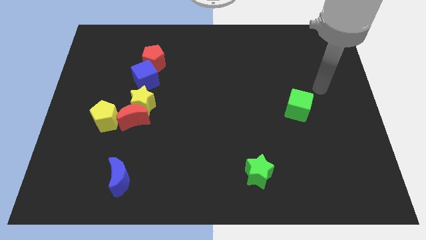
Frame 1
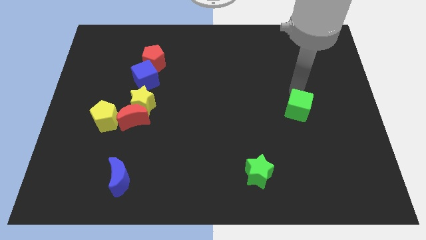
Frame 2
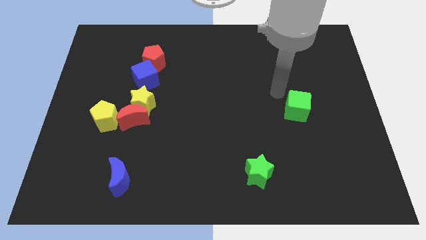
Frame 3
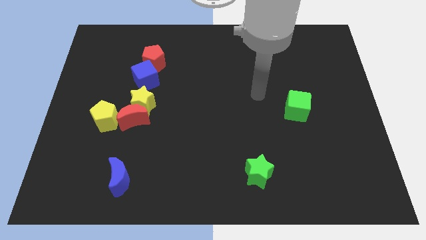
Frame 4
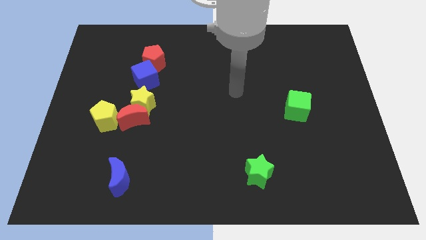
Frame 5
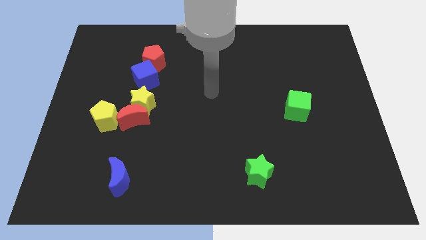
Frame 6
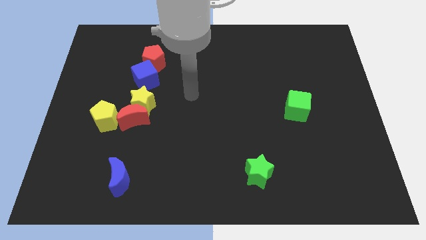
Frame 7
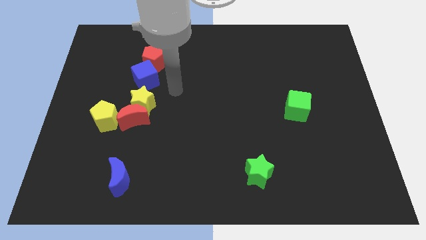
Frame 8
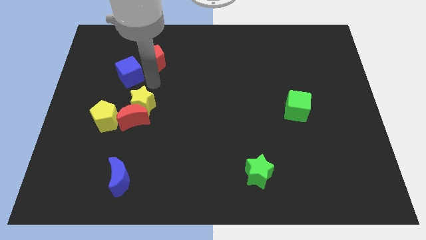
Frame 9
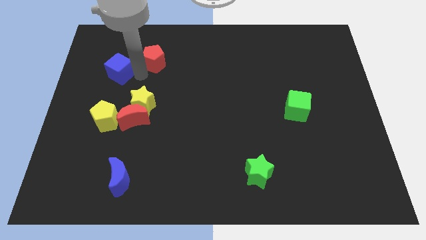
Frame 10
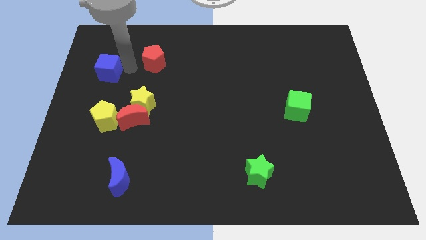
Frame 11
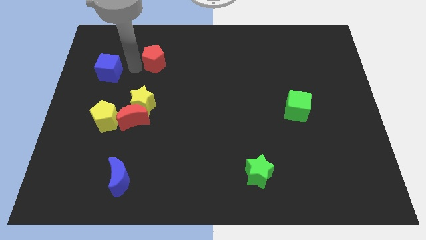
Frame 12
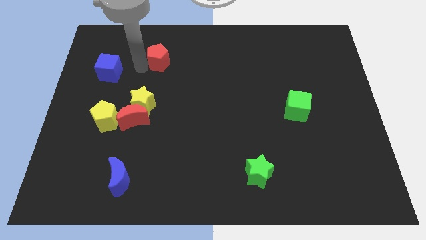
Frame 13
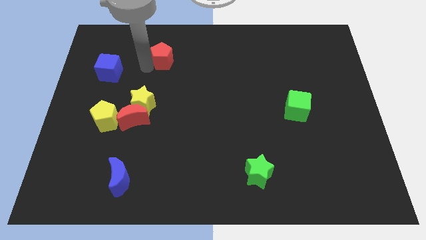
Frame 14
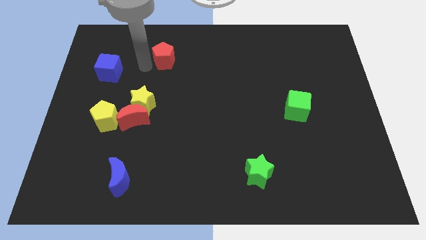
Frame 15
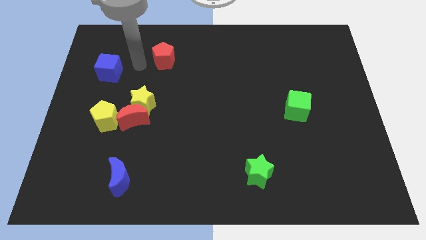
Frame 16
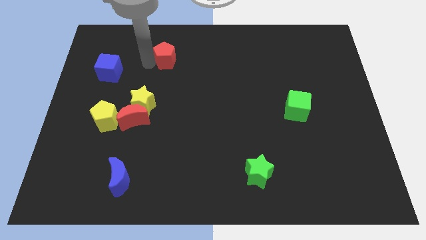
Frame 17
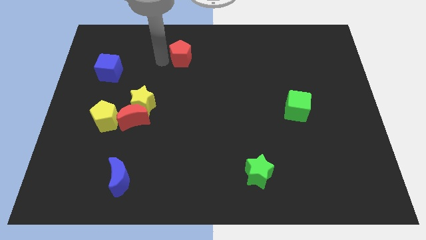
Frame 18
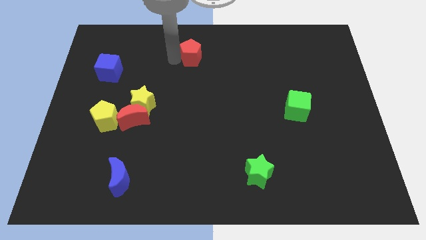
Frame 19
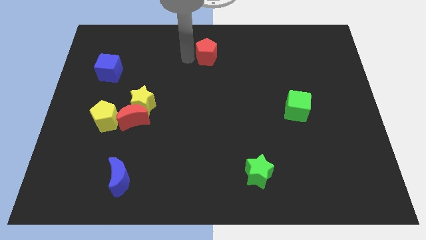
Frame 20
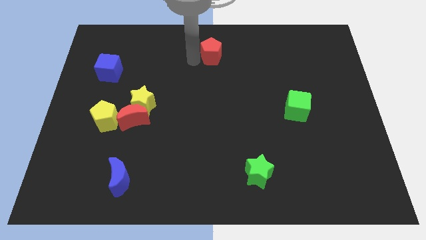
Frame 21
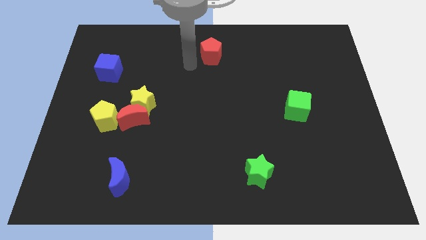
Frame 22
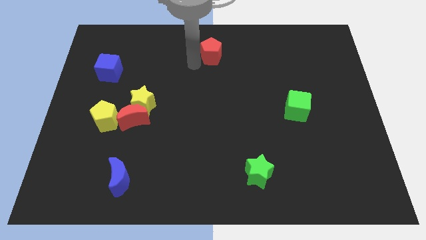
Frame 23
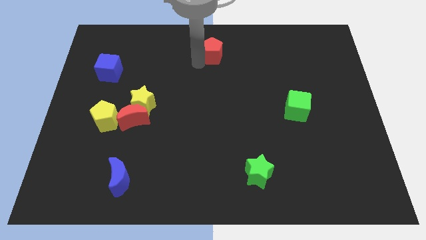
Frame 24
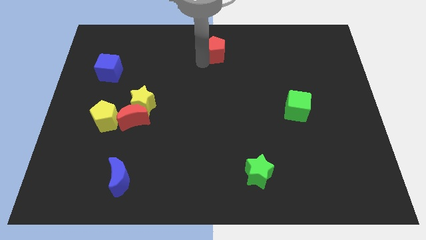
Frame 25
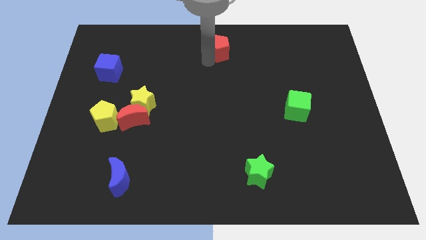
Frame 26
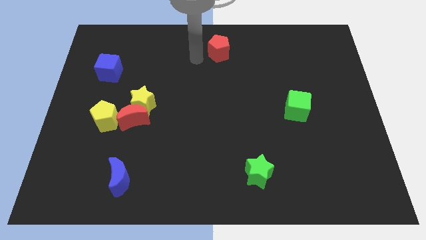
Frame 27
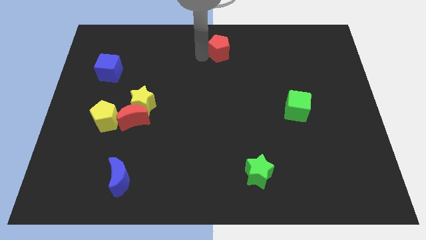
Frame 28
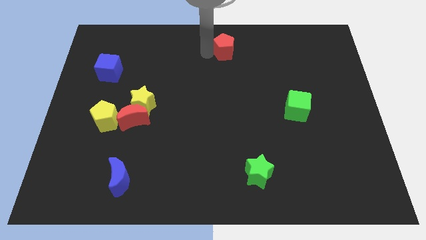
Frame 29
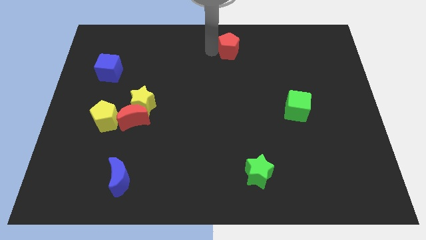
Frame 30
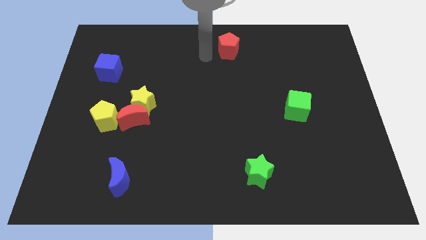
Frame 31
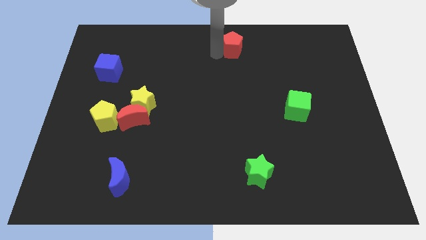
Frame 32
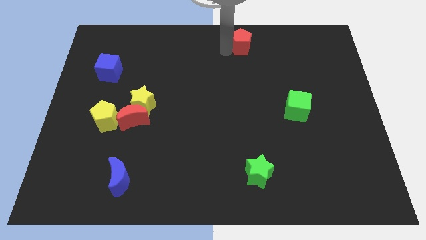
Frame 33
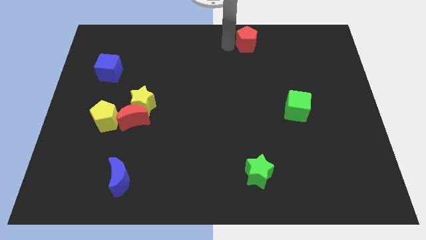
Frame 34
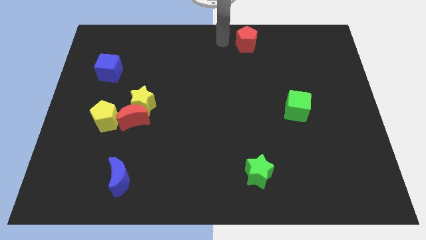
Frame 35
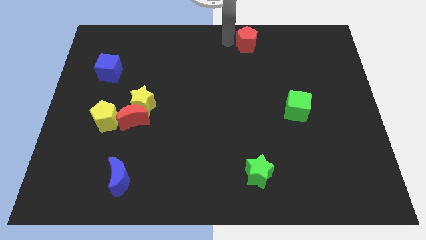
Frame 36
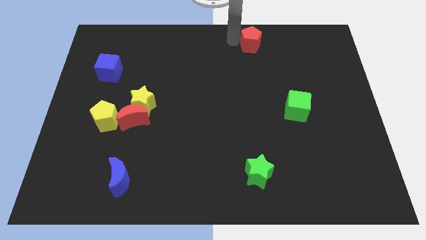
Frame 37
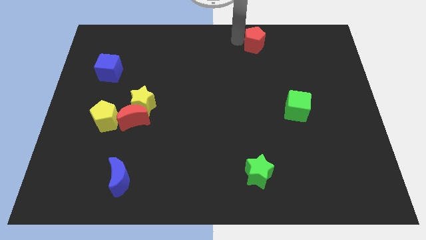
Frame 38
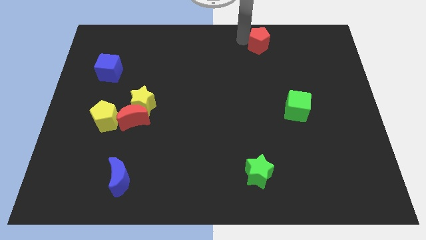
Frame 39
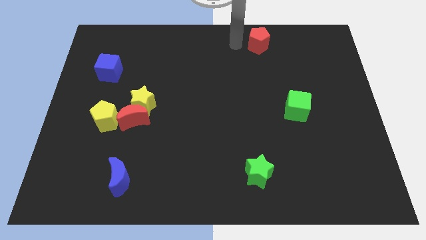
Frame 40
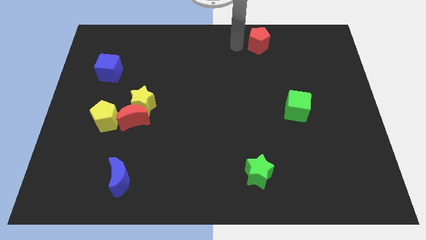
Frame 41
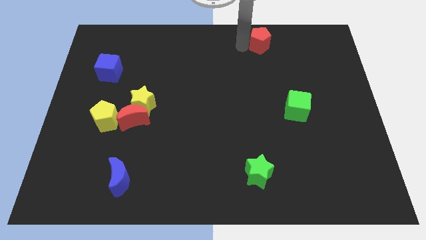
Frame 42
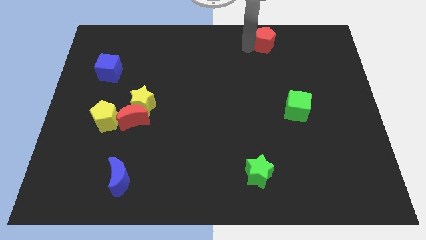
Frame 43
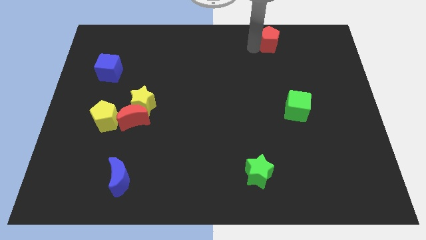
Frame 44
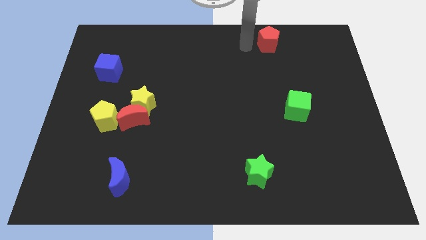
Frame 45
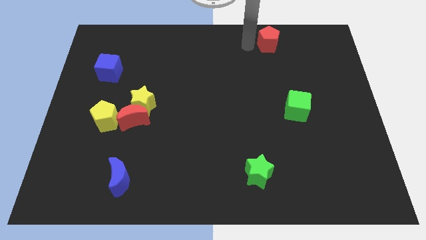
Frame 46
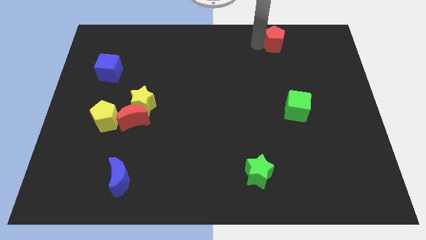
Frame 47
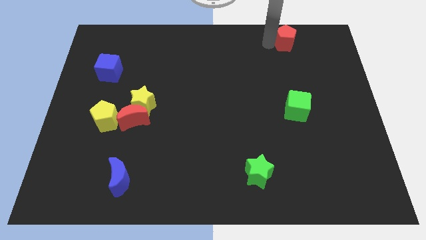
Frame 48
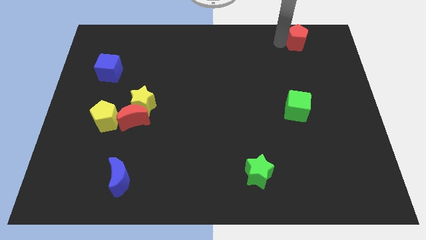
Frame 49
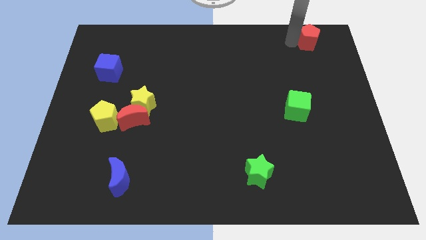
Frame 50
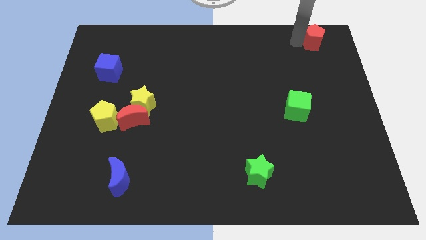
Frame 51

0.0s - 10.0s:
slide the red pentagon to the top right

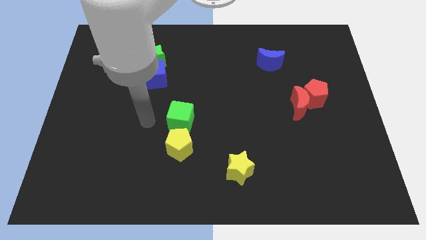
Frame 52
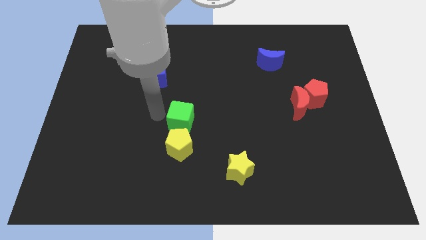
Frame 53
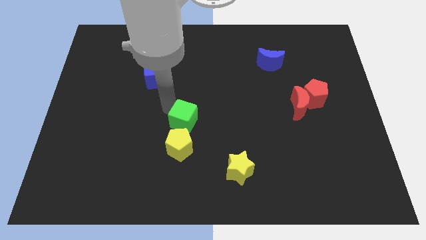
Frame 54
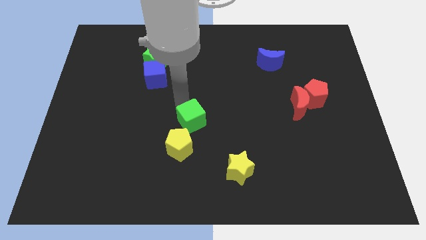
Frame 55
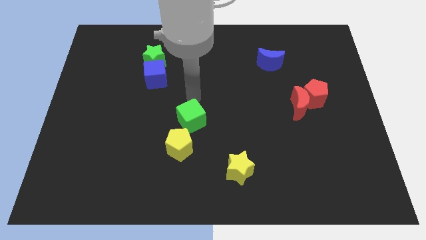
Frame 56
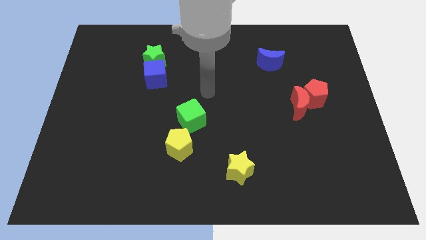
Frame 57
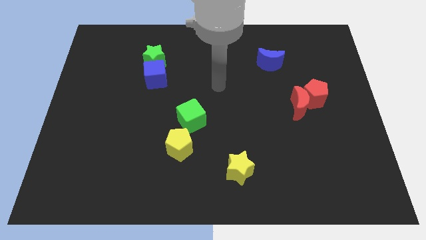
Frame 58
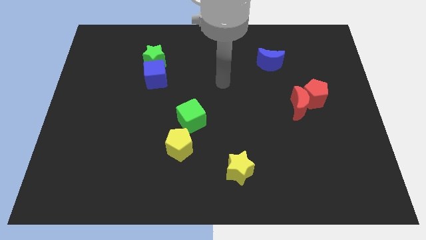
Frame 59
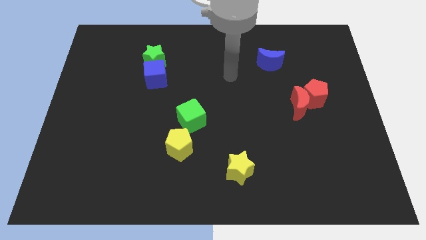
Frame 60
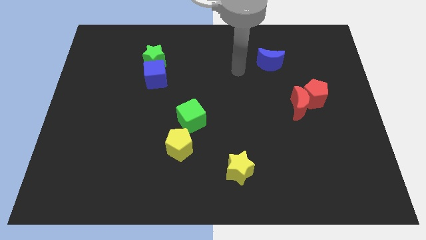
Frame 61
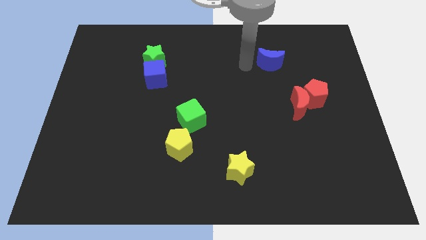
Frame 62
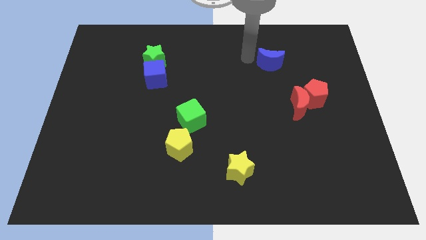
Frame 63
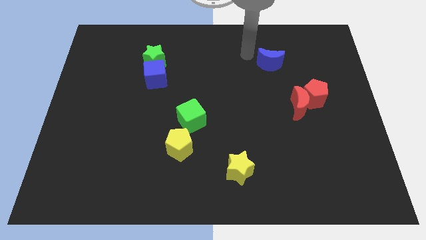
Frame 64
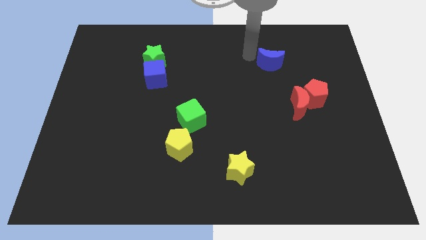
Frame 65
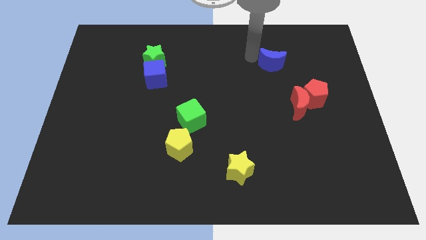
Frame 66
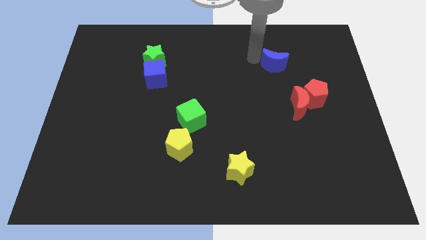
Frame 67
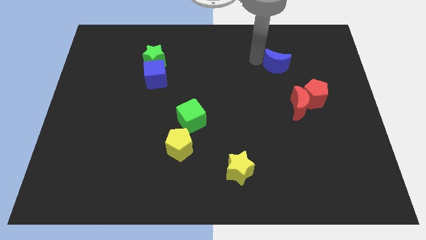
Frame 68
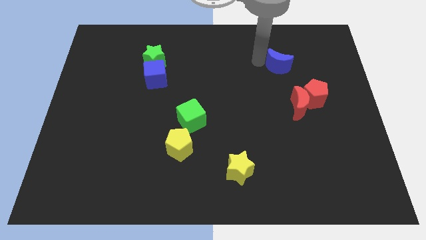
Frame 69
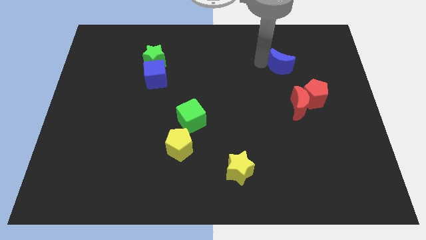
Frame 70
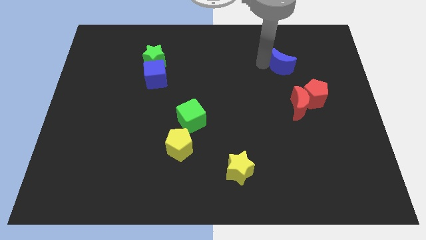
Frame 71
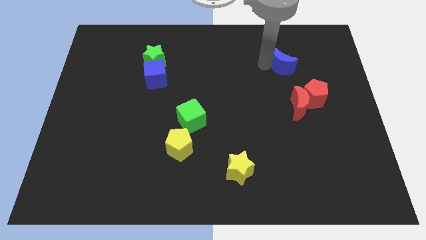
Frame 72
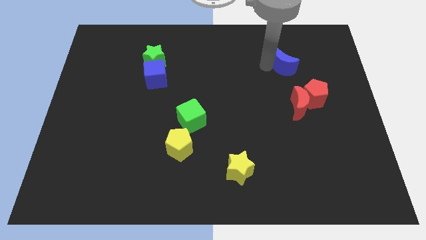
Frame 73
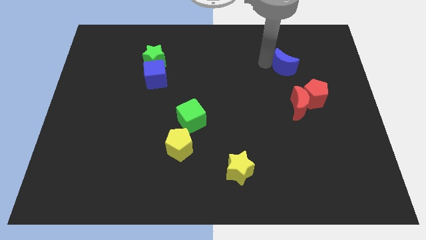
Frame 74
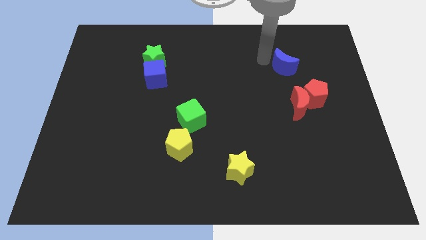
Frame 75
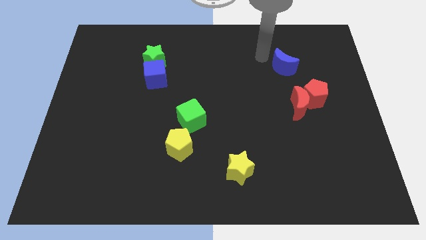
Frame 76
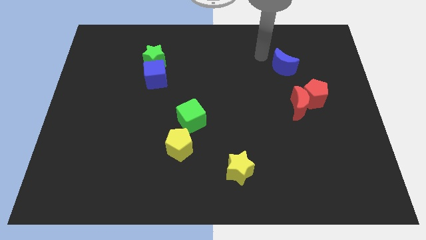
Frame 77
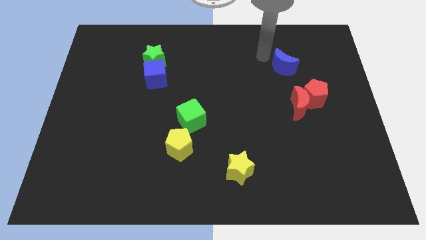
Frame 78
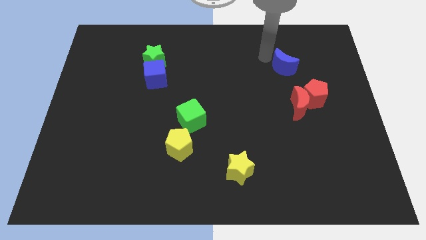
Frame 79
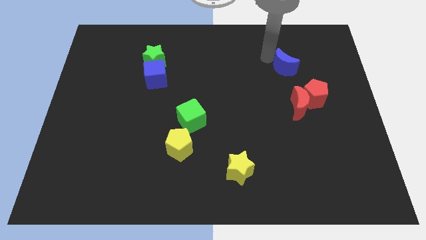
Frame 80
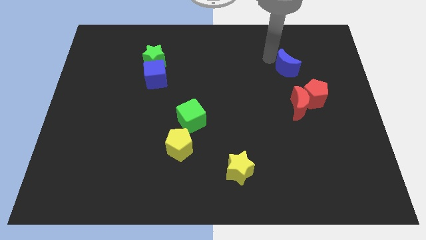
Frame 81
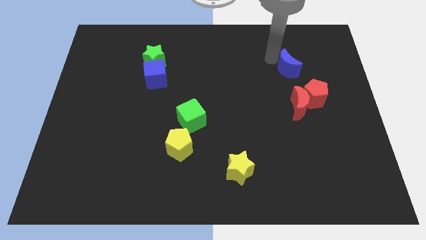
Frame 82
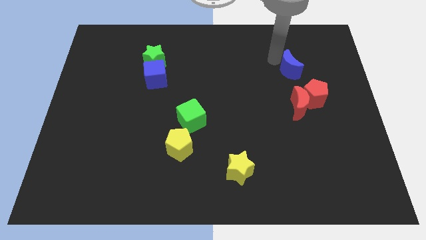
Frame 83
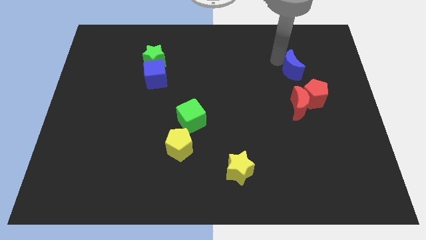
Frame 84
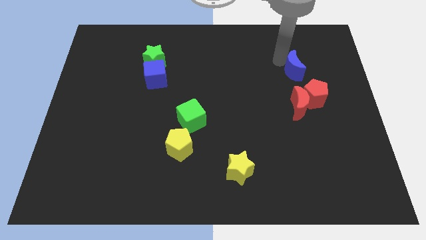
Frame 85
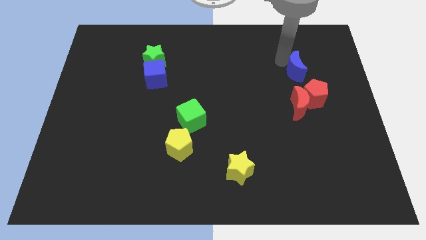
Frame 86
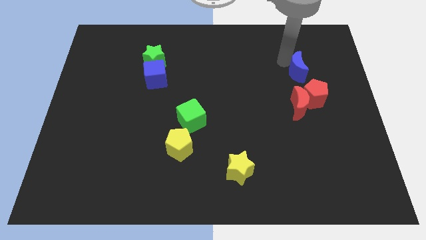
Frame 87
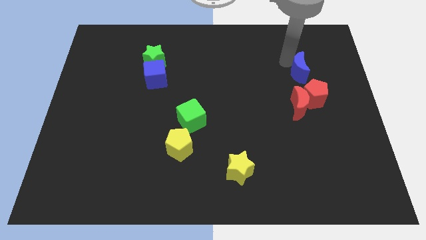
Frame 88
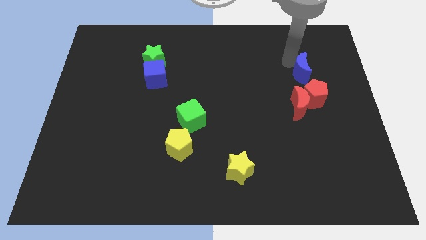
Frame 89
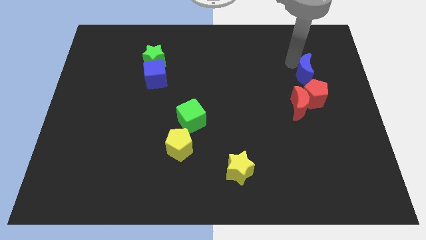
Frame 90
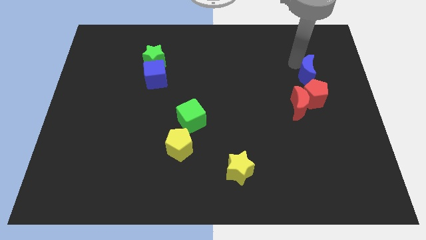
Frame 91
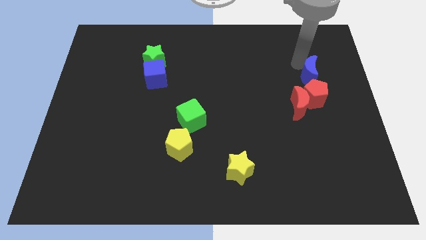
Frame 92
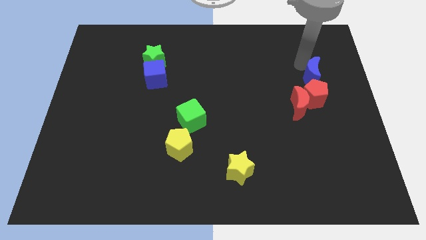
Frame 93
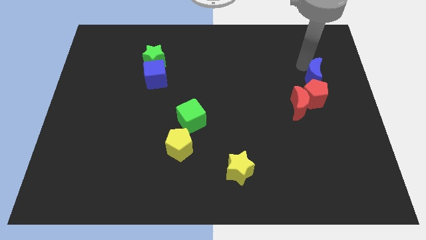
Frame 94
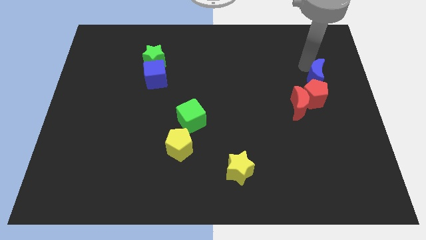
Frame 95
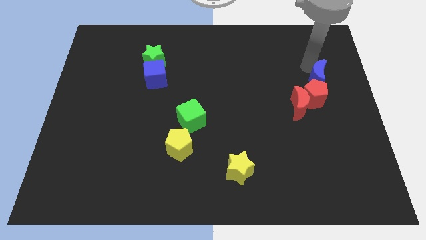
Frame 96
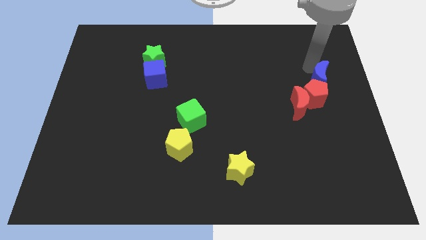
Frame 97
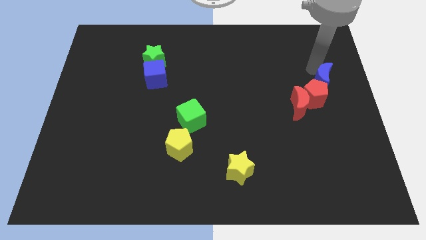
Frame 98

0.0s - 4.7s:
put the blue moon to the right side of the board
